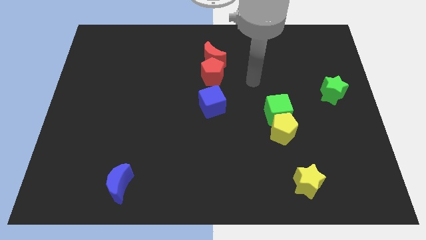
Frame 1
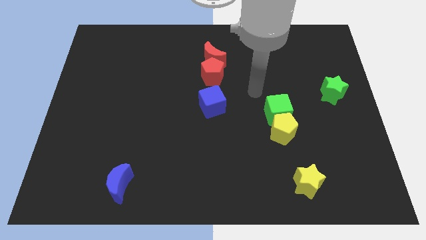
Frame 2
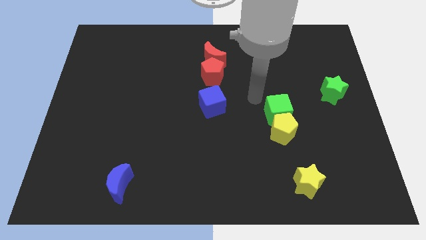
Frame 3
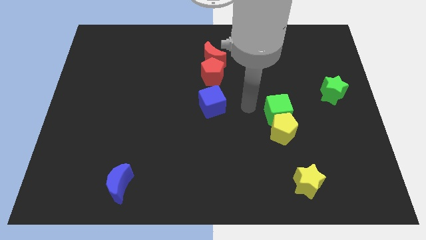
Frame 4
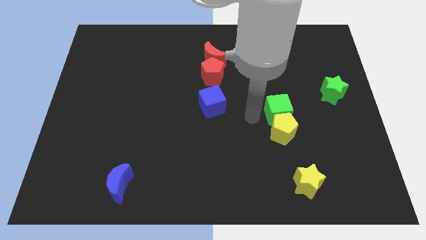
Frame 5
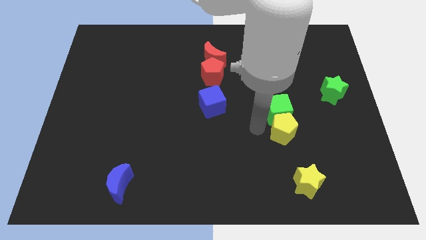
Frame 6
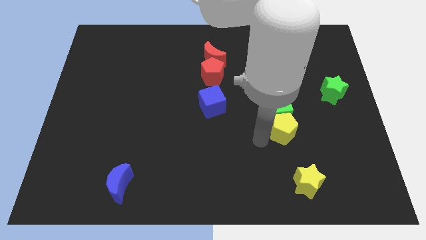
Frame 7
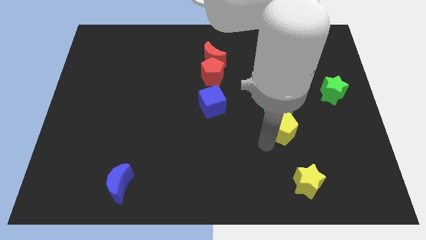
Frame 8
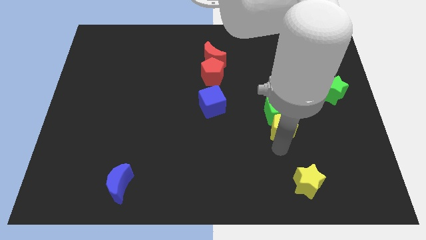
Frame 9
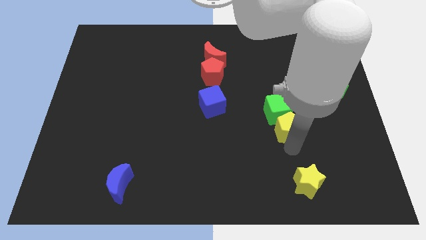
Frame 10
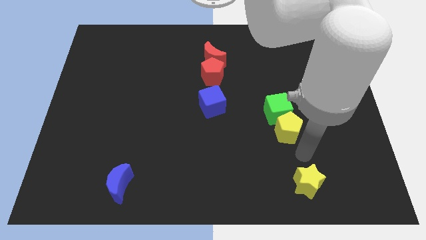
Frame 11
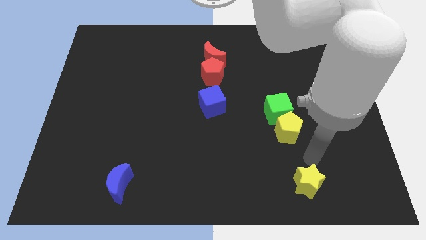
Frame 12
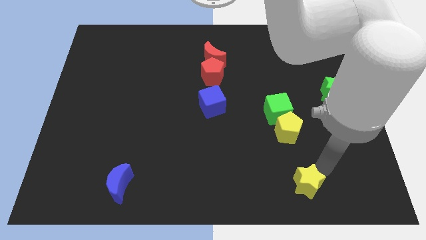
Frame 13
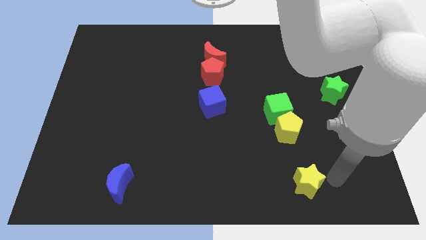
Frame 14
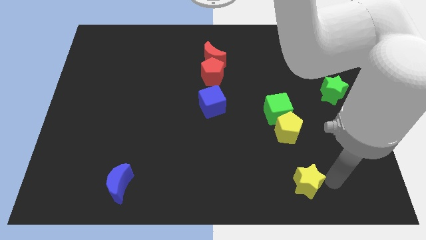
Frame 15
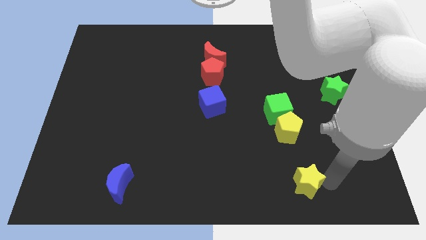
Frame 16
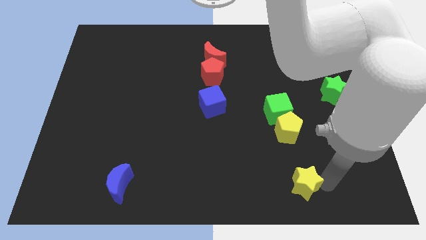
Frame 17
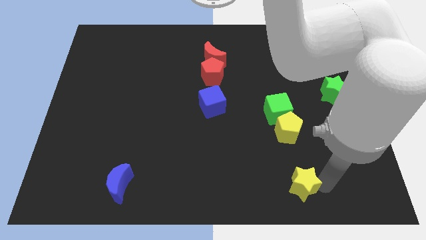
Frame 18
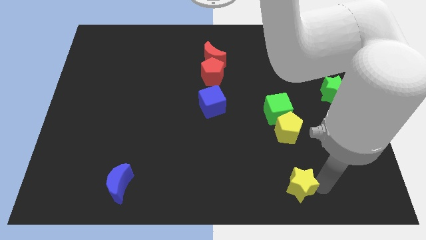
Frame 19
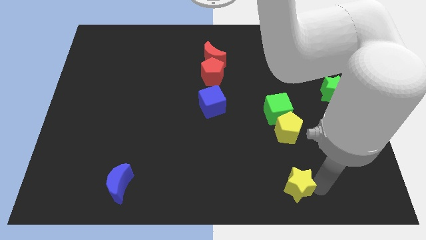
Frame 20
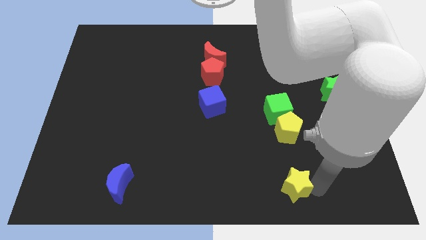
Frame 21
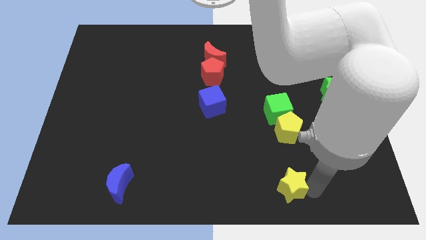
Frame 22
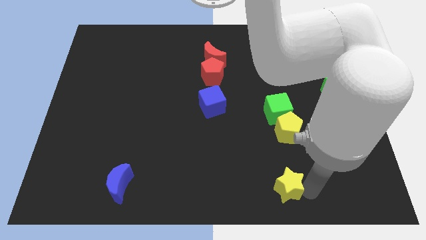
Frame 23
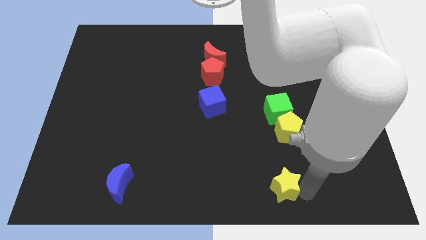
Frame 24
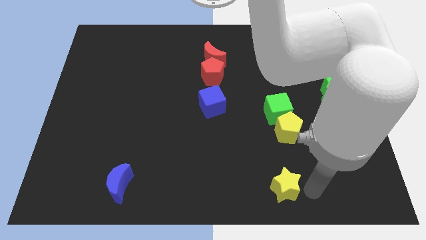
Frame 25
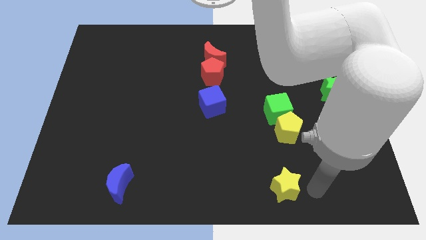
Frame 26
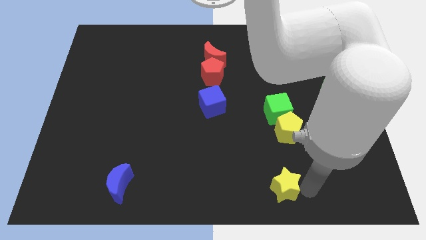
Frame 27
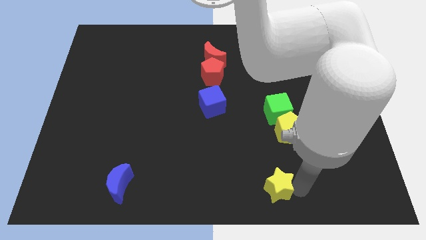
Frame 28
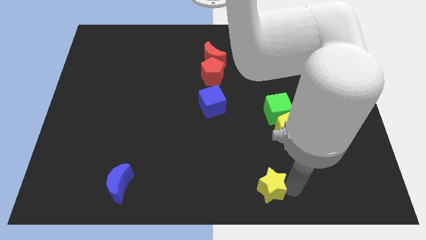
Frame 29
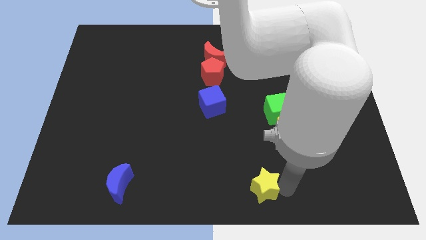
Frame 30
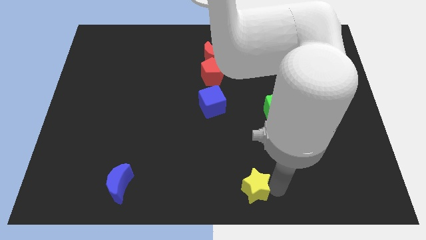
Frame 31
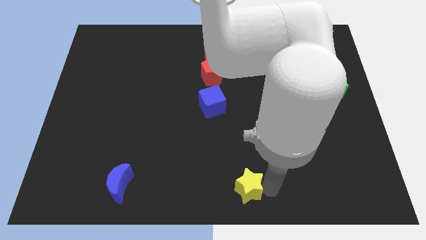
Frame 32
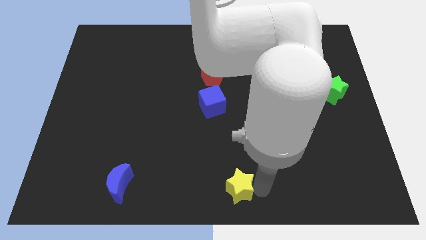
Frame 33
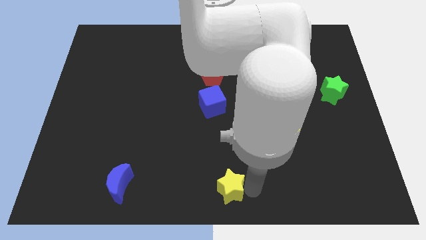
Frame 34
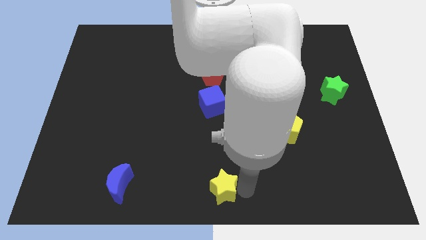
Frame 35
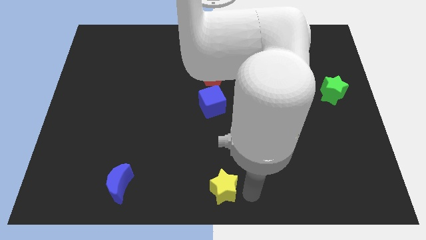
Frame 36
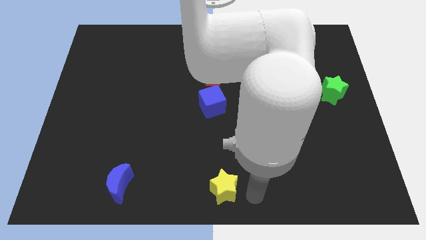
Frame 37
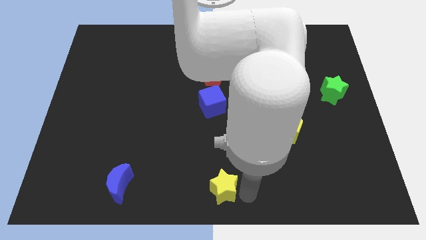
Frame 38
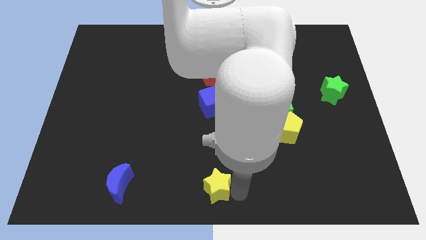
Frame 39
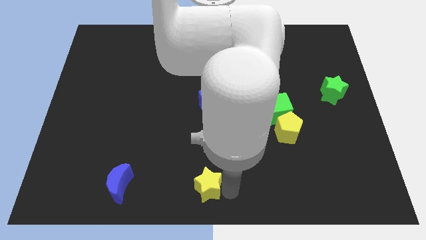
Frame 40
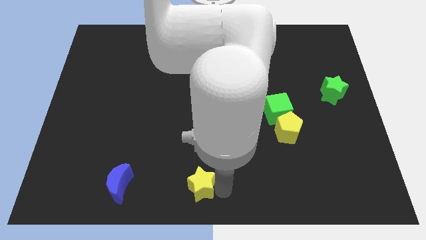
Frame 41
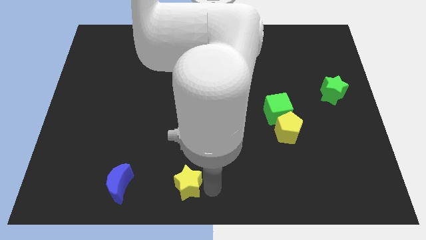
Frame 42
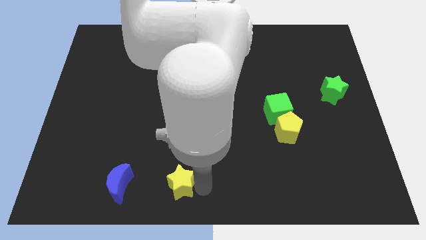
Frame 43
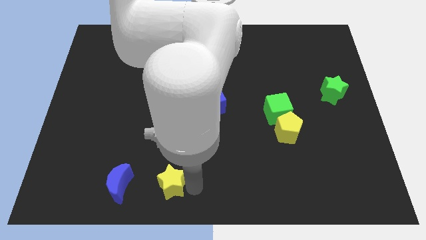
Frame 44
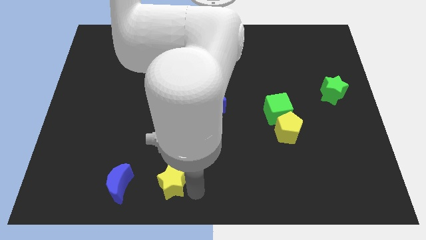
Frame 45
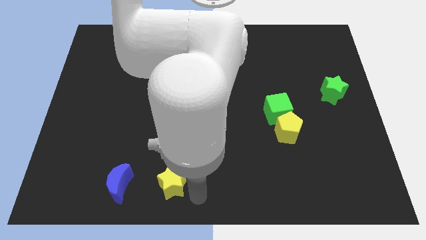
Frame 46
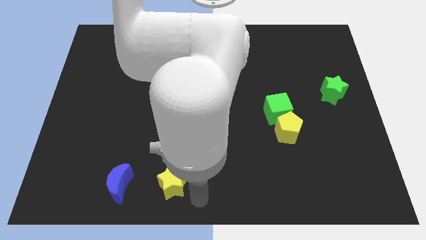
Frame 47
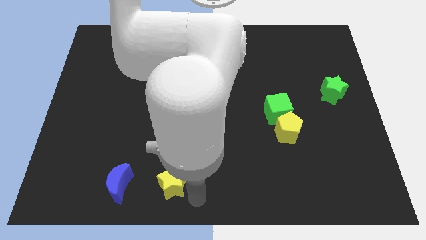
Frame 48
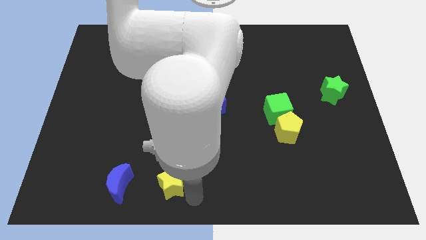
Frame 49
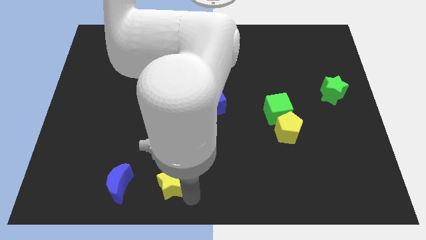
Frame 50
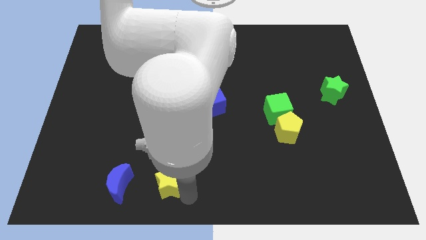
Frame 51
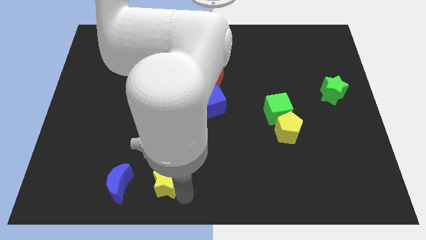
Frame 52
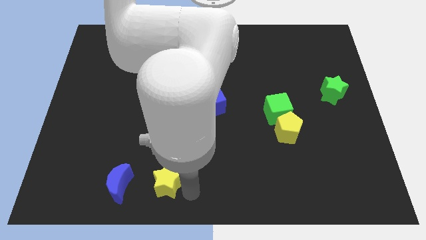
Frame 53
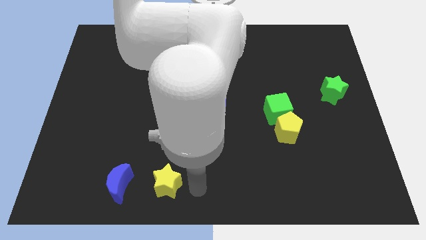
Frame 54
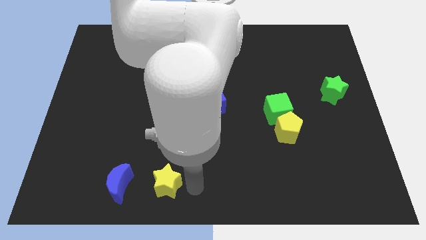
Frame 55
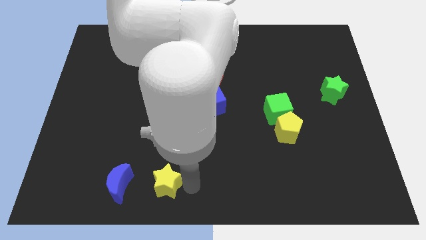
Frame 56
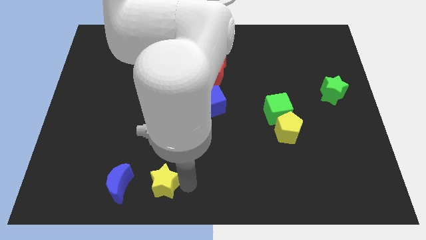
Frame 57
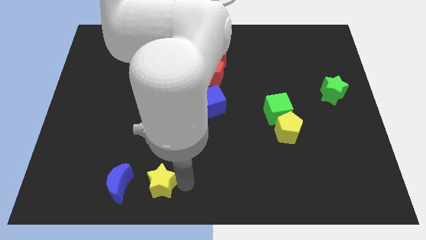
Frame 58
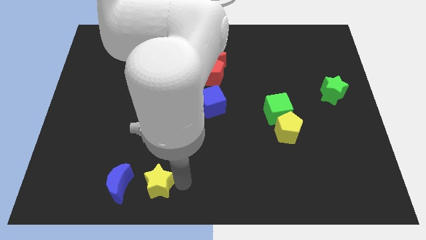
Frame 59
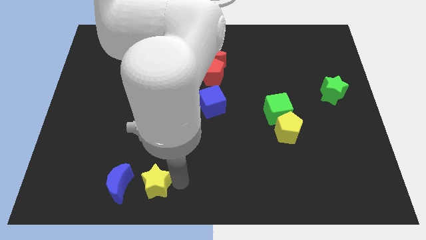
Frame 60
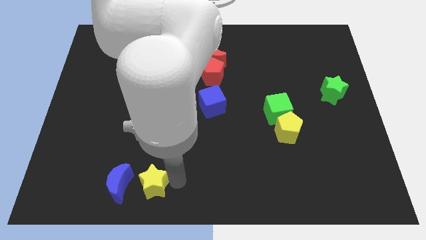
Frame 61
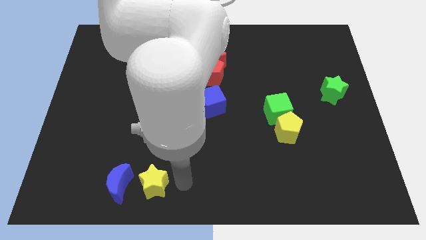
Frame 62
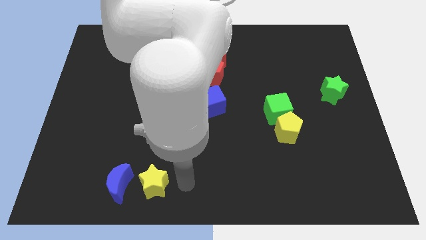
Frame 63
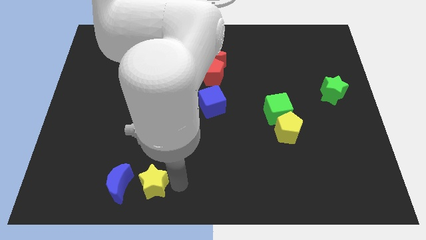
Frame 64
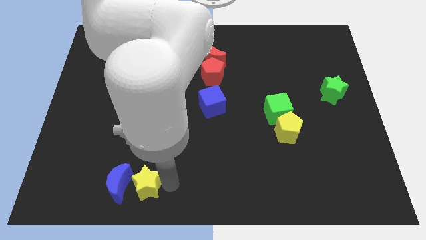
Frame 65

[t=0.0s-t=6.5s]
put the yellow star next to the blue moon
